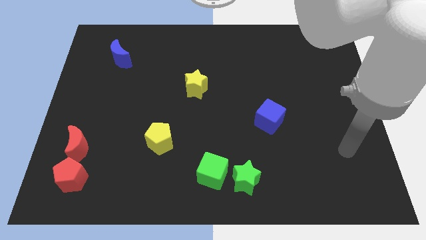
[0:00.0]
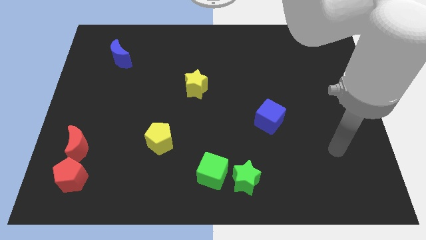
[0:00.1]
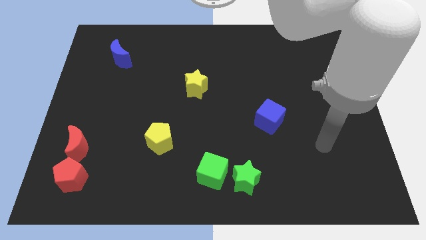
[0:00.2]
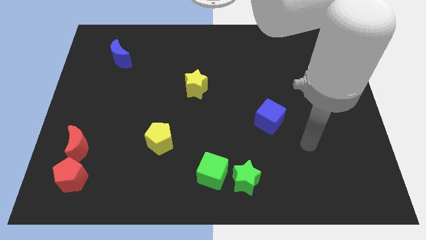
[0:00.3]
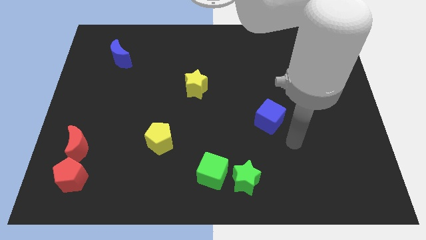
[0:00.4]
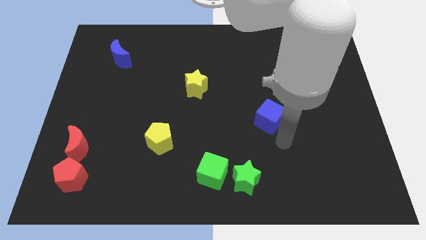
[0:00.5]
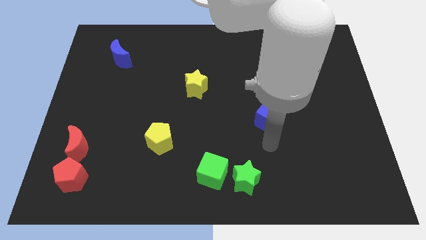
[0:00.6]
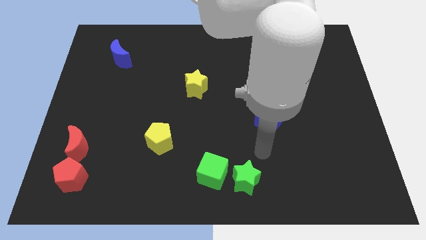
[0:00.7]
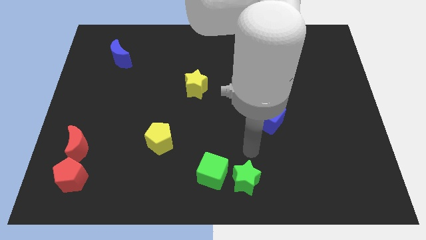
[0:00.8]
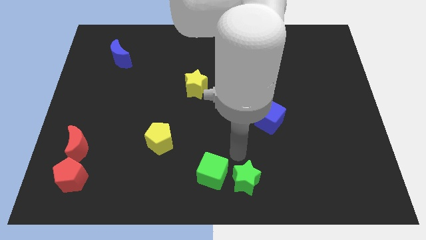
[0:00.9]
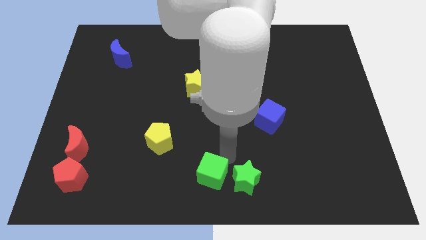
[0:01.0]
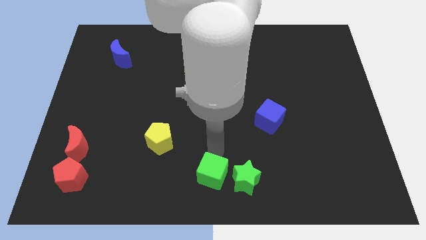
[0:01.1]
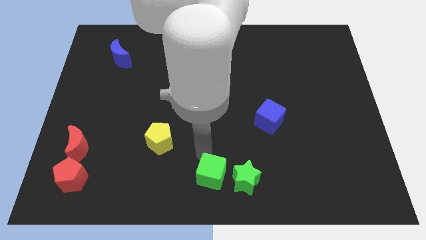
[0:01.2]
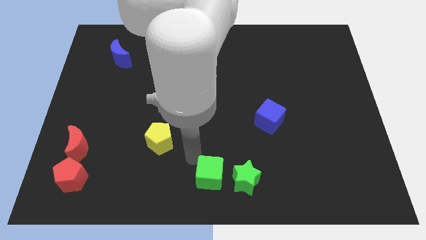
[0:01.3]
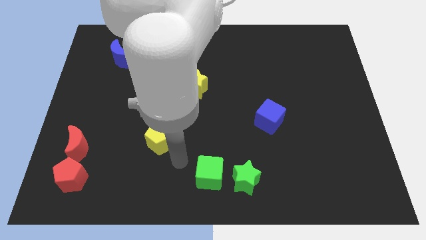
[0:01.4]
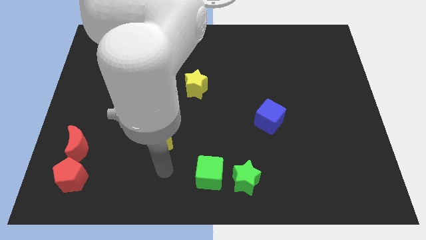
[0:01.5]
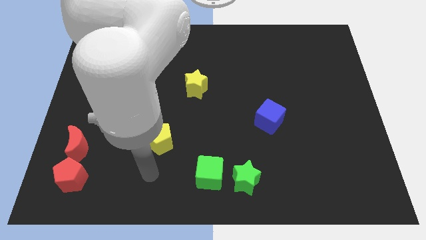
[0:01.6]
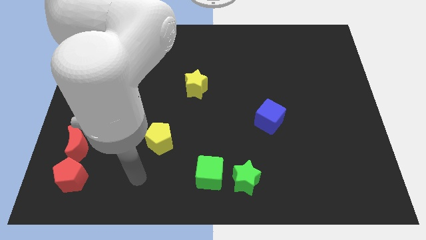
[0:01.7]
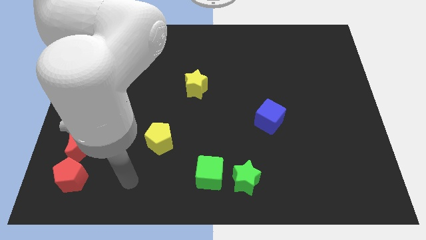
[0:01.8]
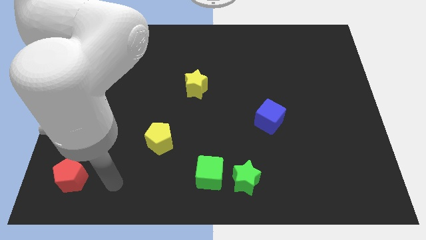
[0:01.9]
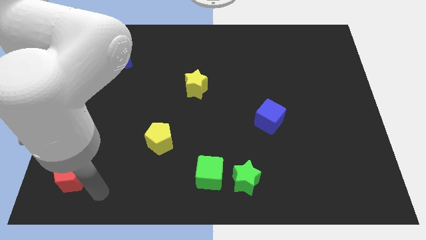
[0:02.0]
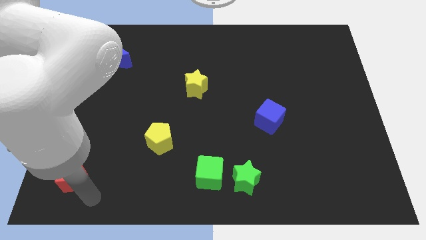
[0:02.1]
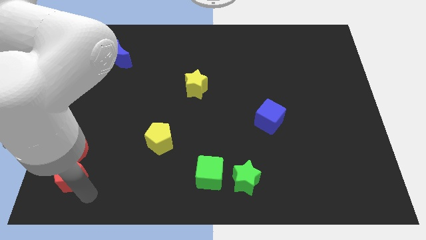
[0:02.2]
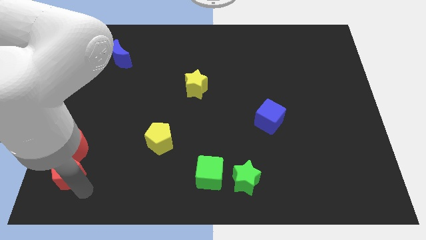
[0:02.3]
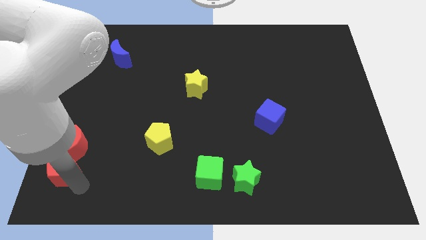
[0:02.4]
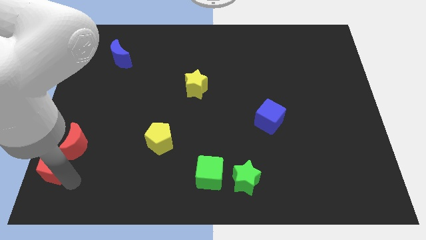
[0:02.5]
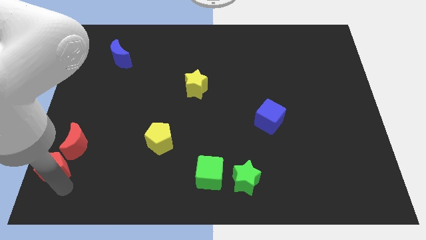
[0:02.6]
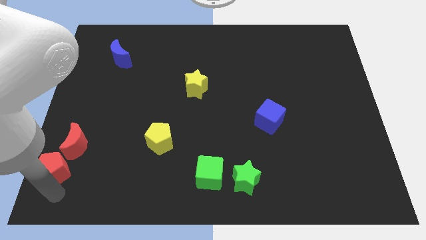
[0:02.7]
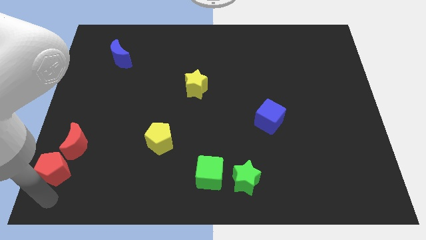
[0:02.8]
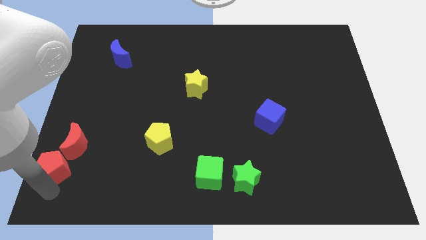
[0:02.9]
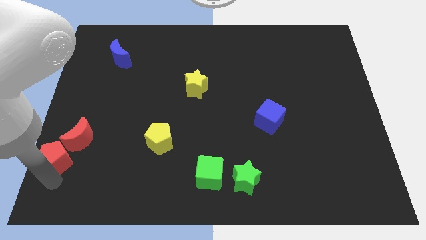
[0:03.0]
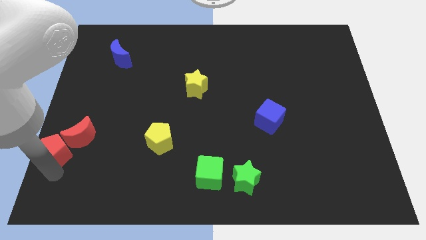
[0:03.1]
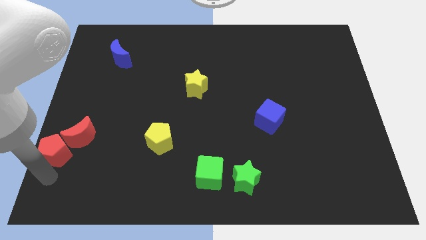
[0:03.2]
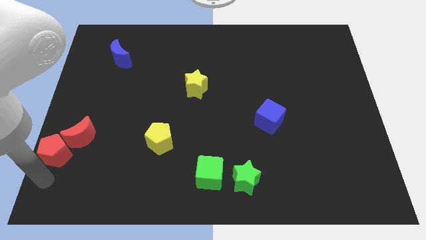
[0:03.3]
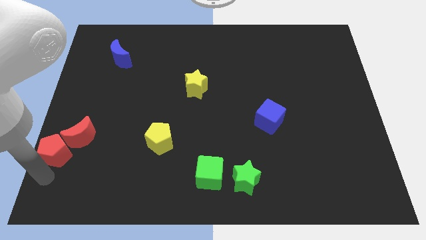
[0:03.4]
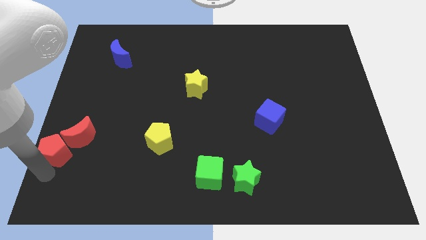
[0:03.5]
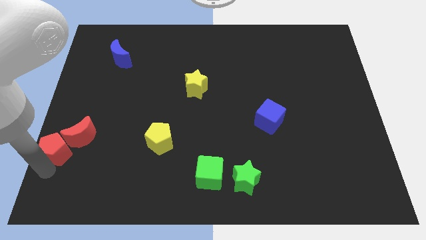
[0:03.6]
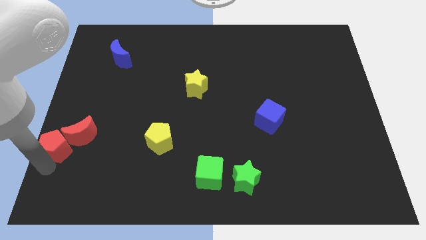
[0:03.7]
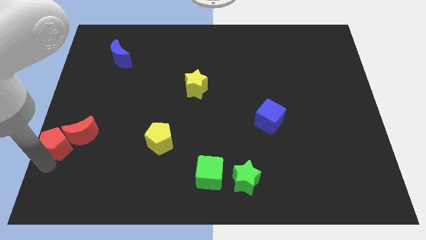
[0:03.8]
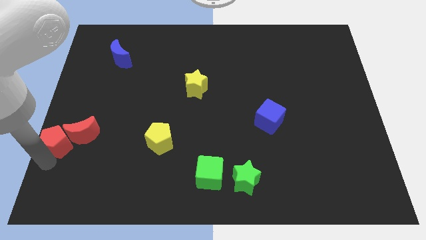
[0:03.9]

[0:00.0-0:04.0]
move the red pentagon a bit upwards

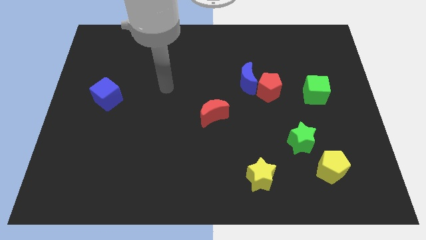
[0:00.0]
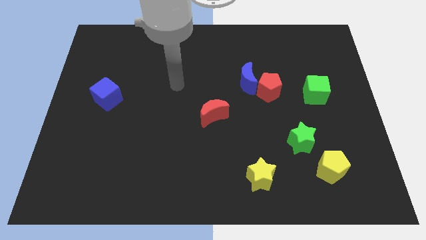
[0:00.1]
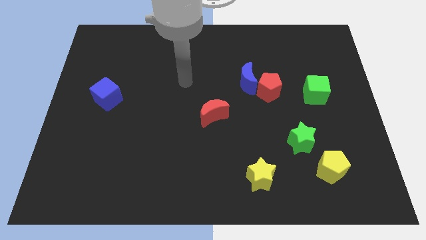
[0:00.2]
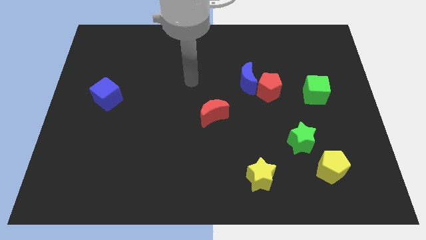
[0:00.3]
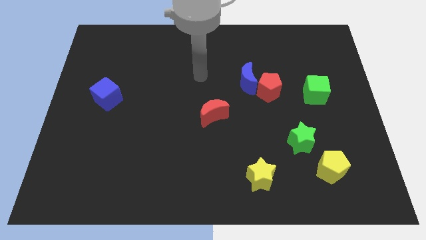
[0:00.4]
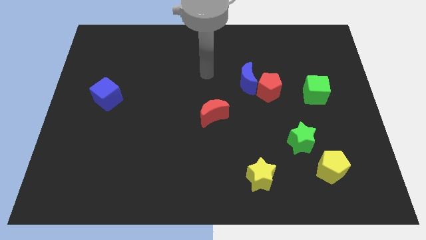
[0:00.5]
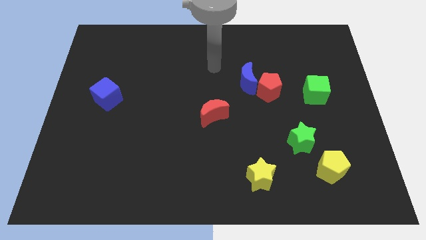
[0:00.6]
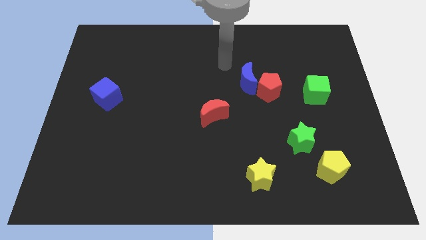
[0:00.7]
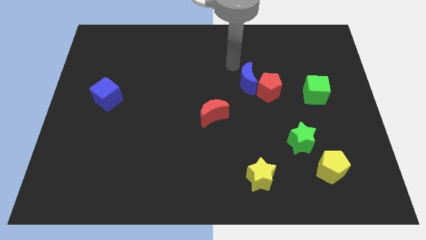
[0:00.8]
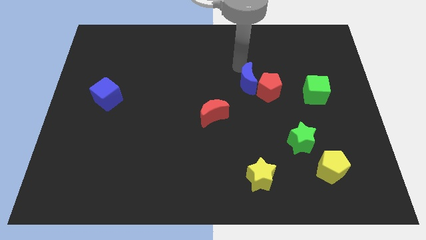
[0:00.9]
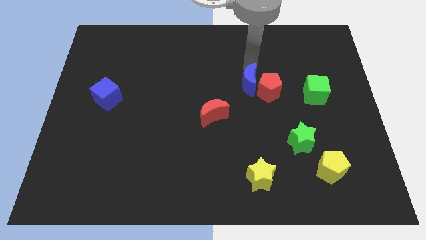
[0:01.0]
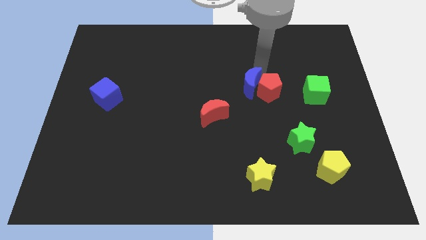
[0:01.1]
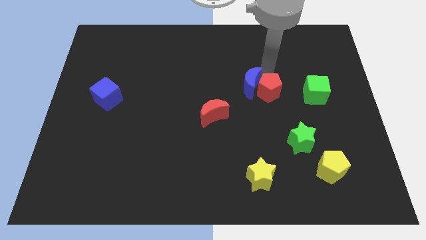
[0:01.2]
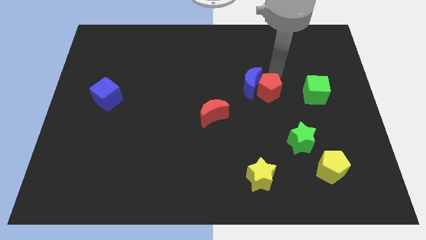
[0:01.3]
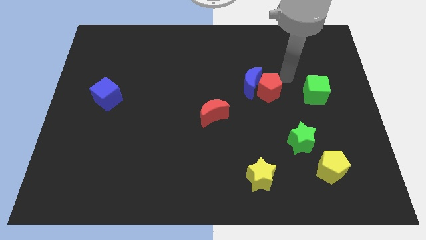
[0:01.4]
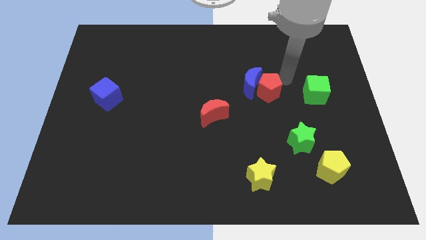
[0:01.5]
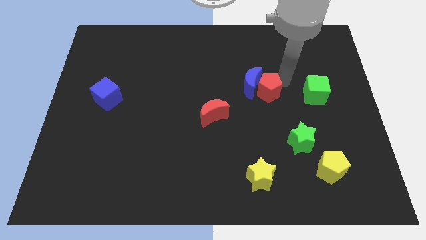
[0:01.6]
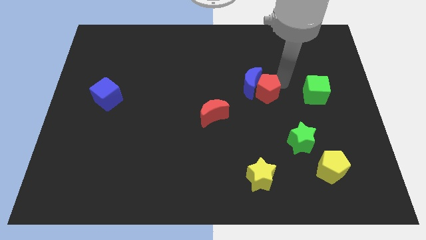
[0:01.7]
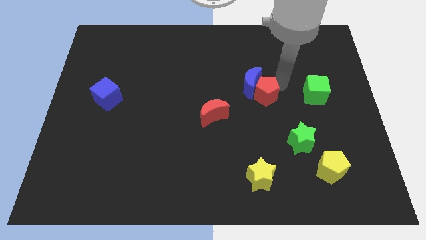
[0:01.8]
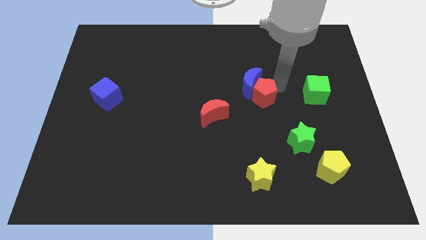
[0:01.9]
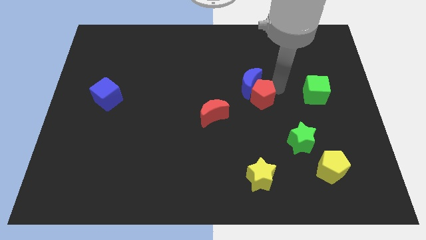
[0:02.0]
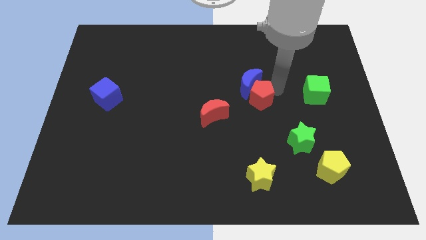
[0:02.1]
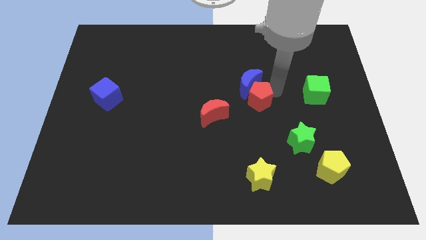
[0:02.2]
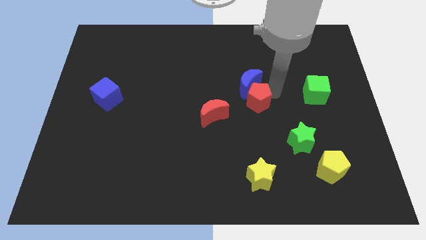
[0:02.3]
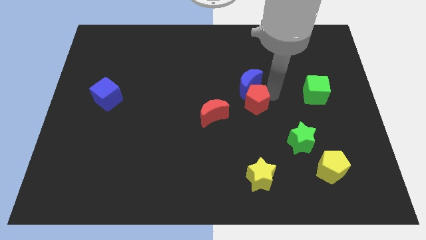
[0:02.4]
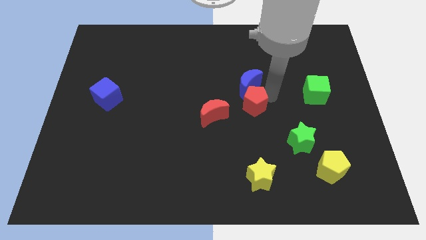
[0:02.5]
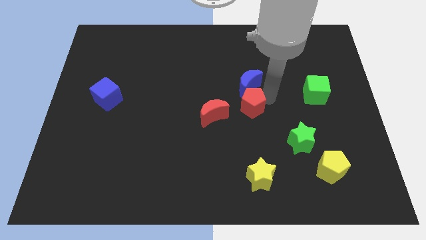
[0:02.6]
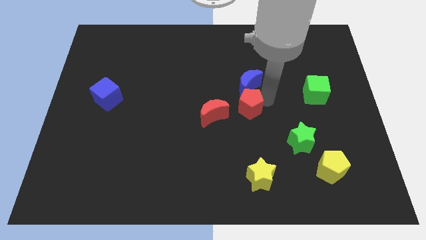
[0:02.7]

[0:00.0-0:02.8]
slightly push the red pentagon downwards and then left

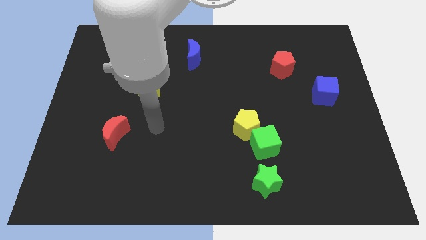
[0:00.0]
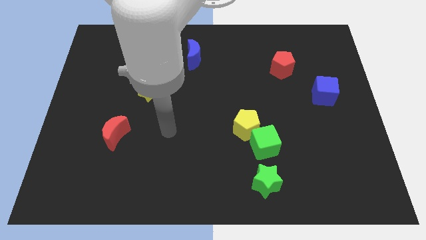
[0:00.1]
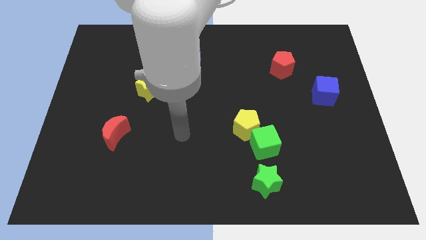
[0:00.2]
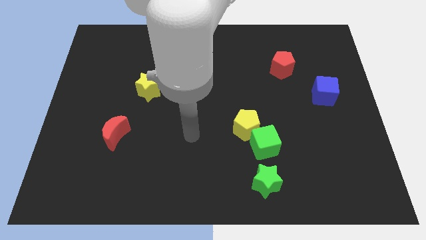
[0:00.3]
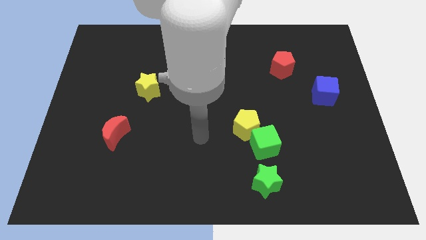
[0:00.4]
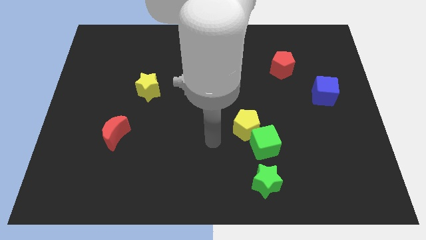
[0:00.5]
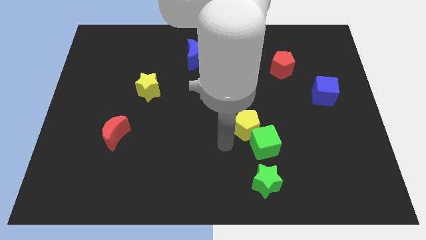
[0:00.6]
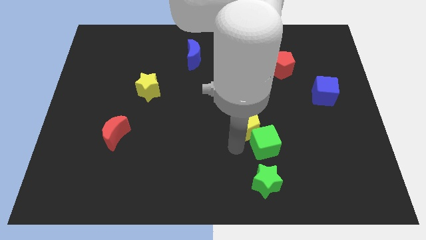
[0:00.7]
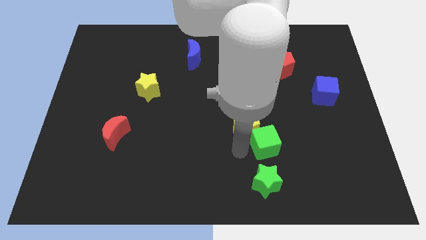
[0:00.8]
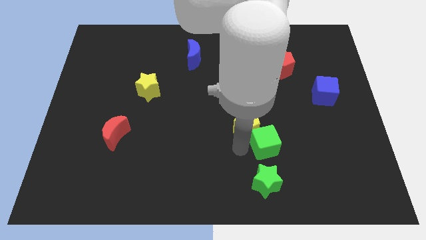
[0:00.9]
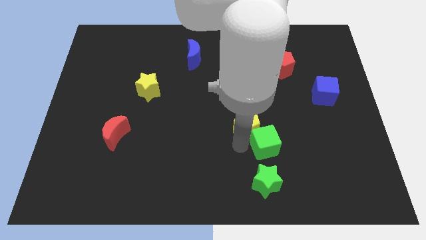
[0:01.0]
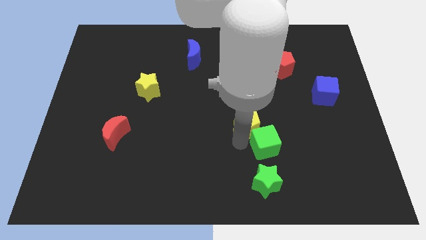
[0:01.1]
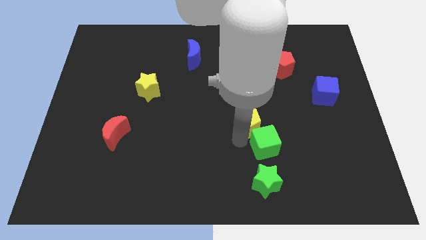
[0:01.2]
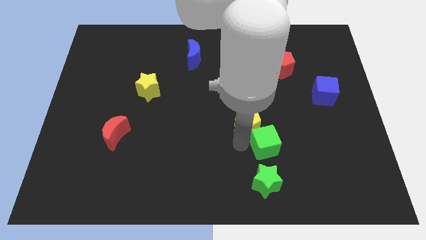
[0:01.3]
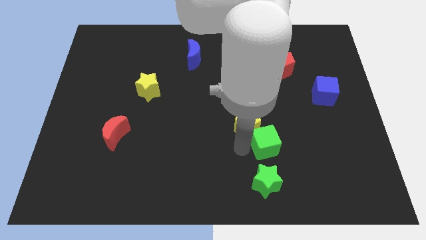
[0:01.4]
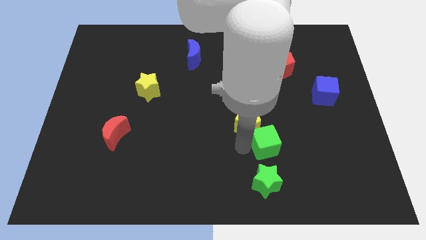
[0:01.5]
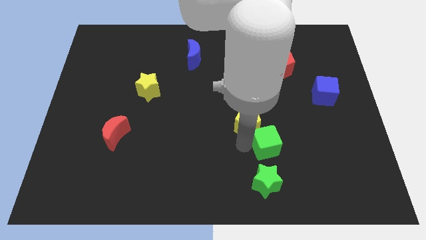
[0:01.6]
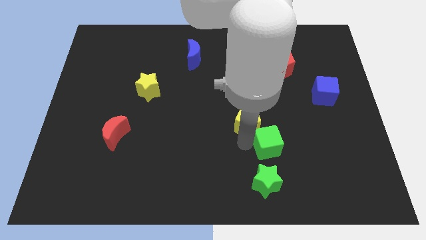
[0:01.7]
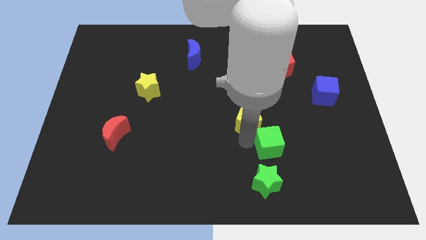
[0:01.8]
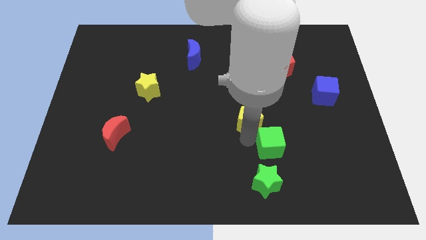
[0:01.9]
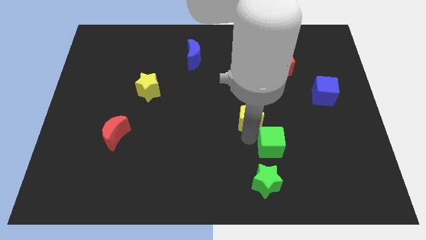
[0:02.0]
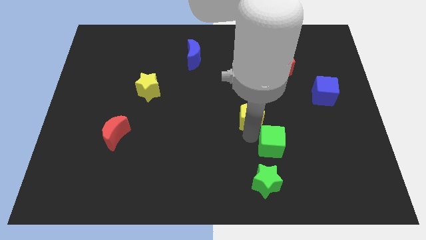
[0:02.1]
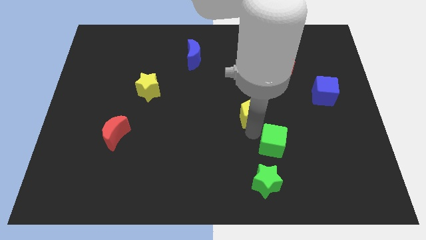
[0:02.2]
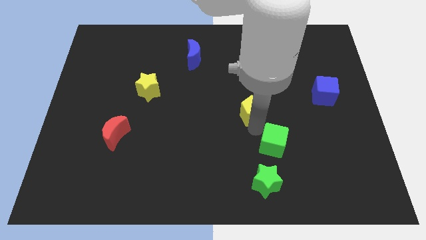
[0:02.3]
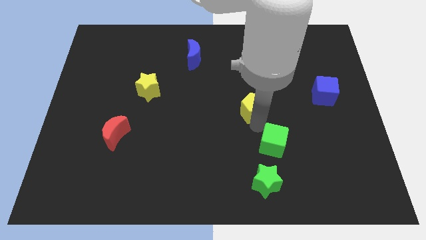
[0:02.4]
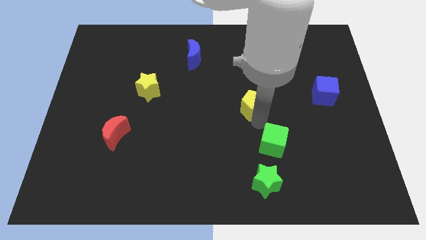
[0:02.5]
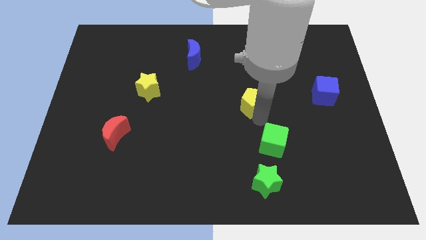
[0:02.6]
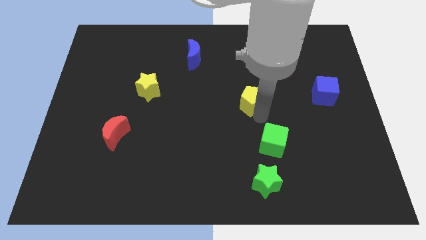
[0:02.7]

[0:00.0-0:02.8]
move the yellow pentagon somewhat up
